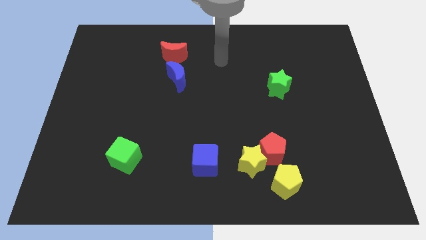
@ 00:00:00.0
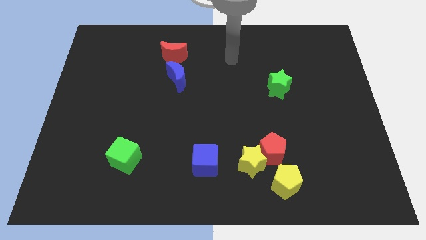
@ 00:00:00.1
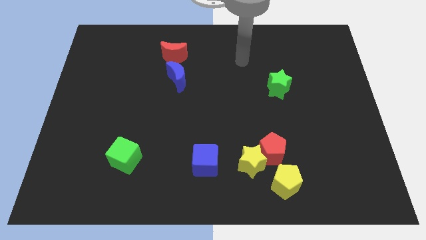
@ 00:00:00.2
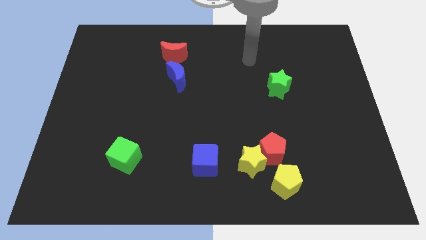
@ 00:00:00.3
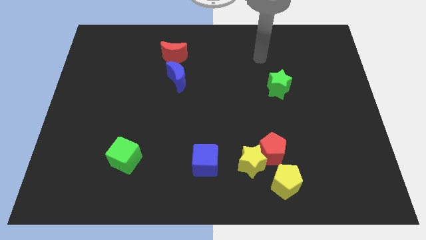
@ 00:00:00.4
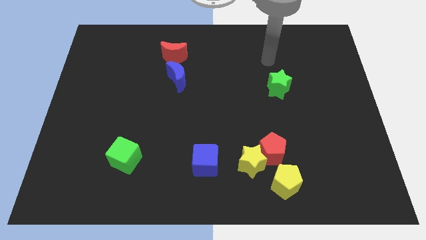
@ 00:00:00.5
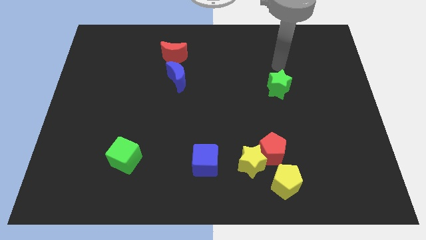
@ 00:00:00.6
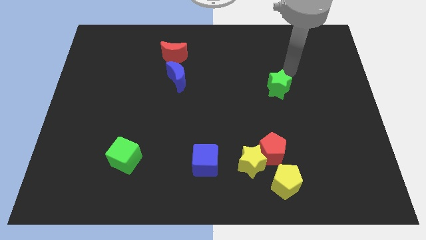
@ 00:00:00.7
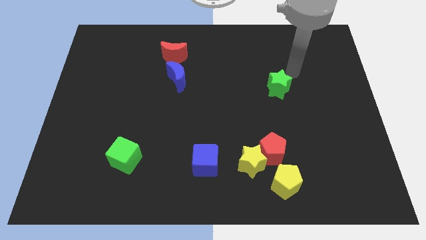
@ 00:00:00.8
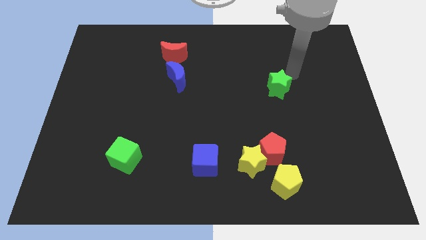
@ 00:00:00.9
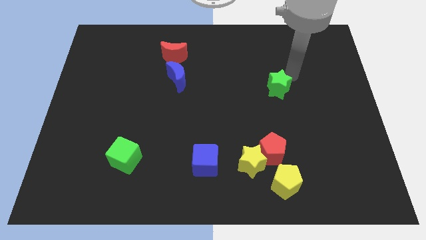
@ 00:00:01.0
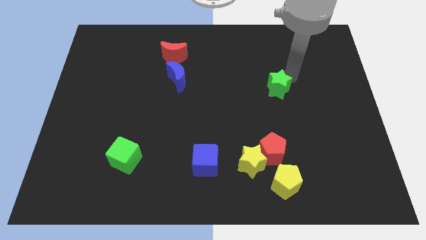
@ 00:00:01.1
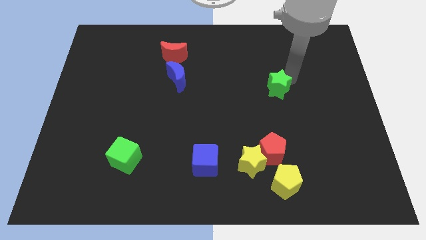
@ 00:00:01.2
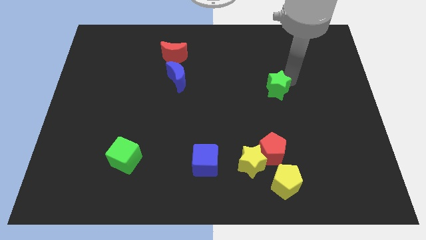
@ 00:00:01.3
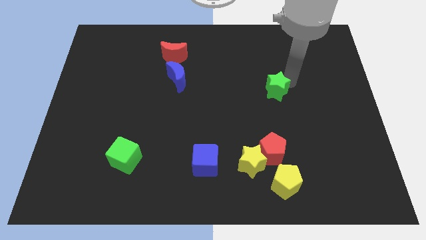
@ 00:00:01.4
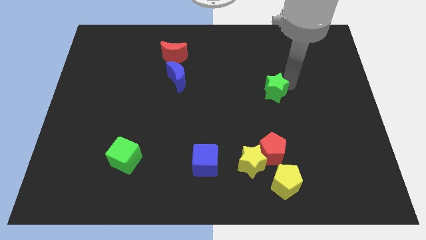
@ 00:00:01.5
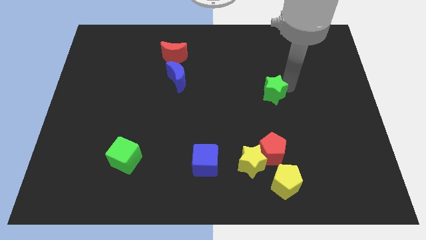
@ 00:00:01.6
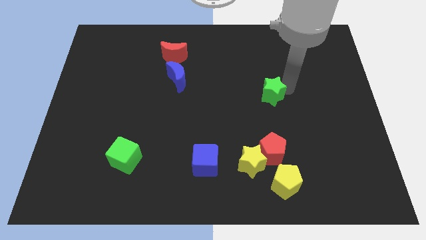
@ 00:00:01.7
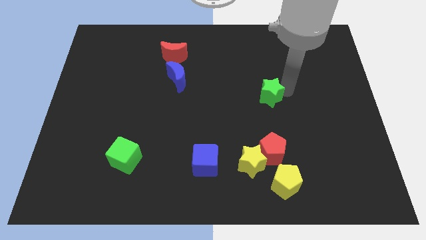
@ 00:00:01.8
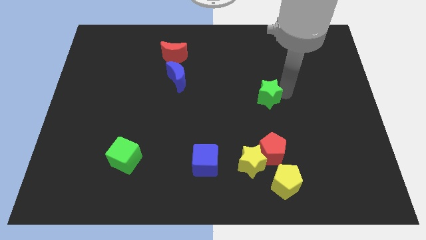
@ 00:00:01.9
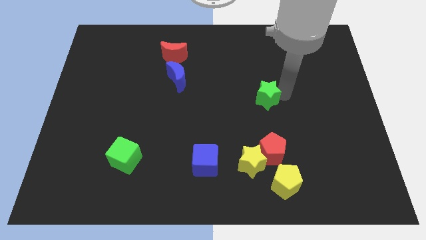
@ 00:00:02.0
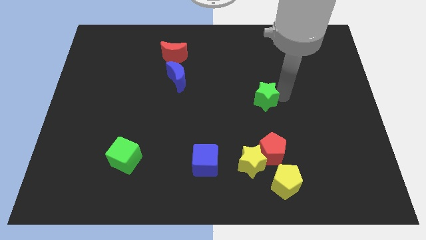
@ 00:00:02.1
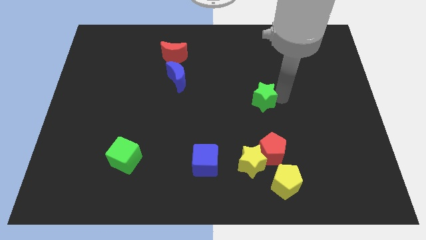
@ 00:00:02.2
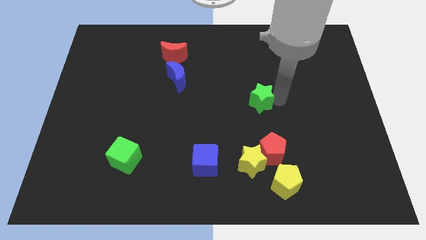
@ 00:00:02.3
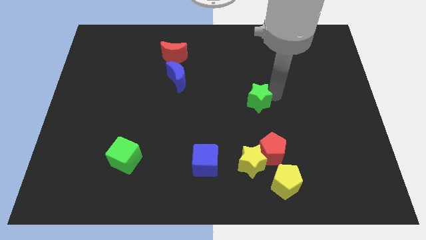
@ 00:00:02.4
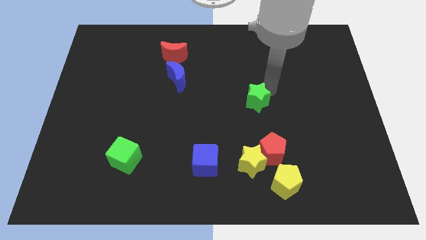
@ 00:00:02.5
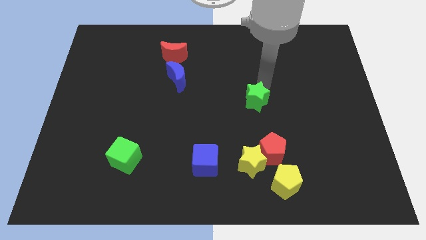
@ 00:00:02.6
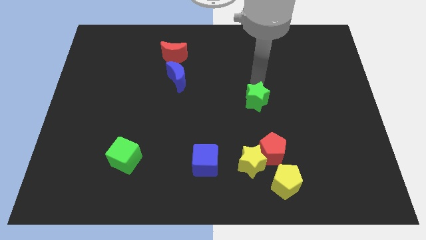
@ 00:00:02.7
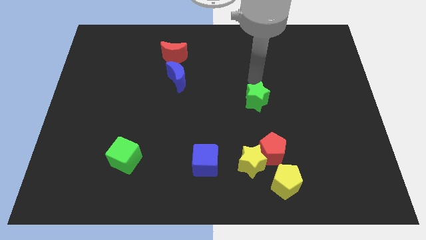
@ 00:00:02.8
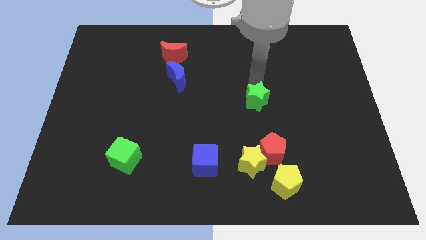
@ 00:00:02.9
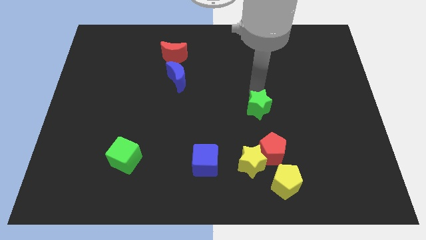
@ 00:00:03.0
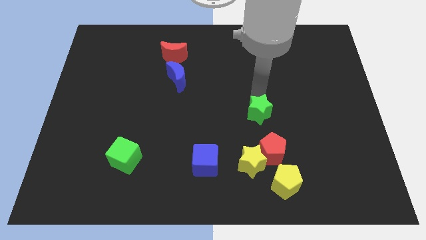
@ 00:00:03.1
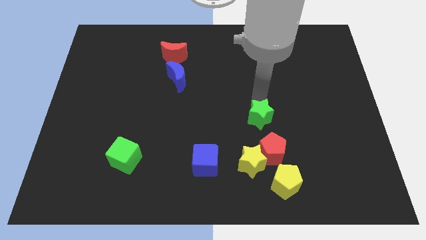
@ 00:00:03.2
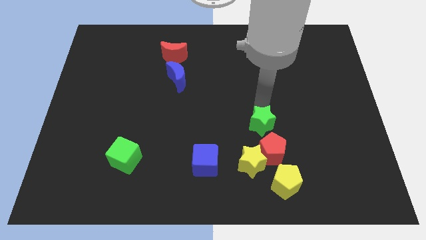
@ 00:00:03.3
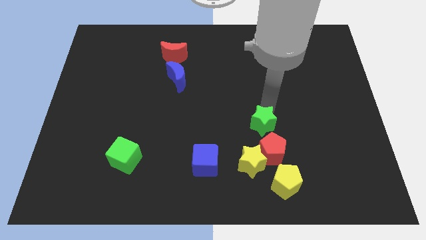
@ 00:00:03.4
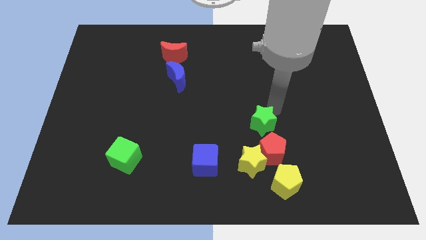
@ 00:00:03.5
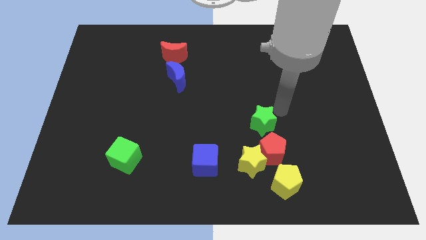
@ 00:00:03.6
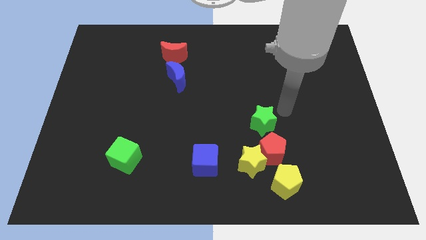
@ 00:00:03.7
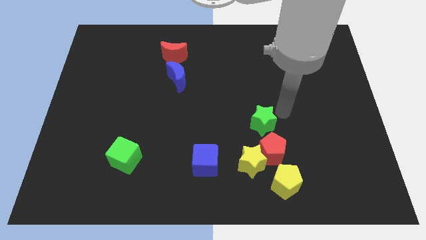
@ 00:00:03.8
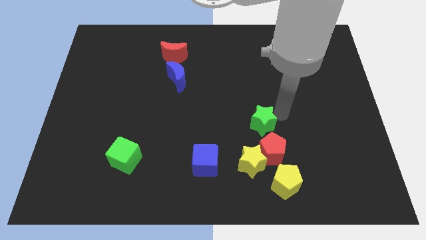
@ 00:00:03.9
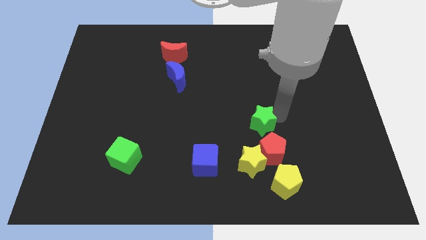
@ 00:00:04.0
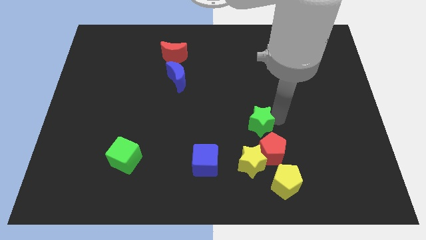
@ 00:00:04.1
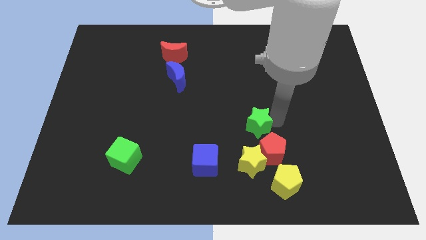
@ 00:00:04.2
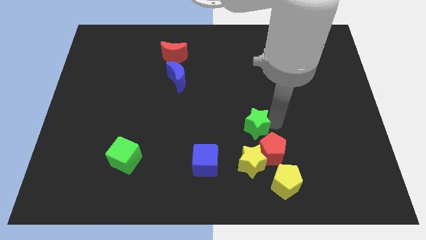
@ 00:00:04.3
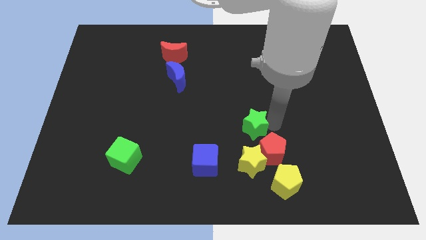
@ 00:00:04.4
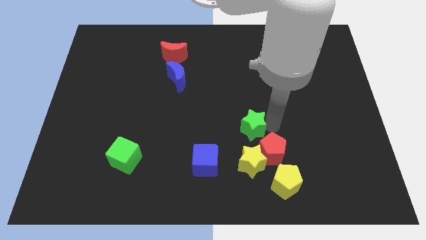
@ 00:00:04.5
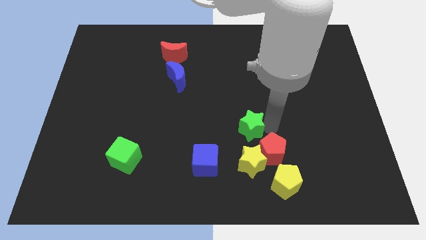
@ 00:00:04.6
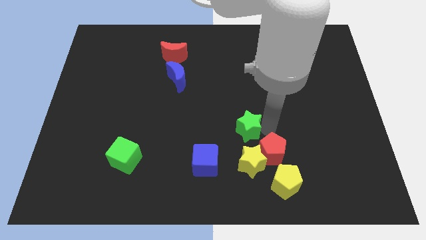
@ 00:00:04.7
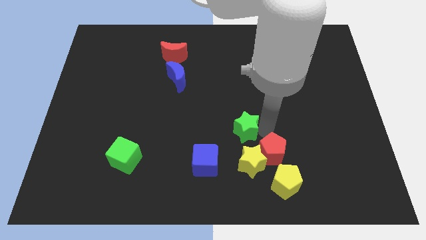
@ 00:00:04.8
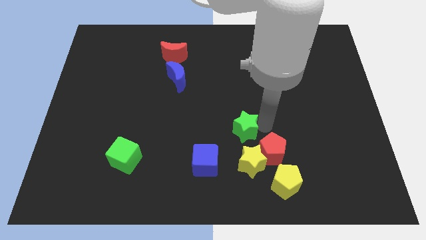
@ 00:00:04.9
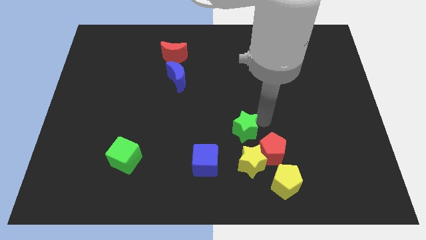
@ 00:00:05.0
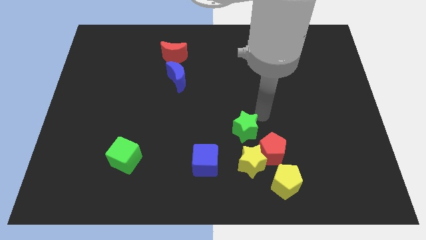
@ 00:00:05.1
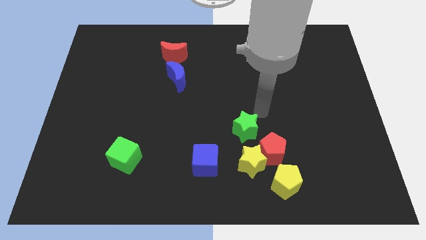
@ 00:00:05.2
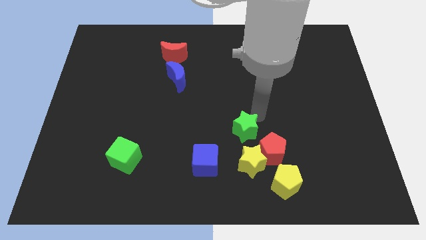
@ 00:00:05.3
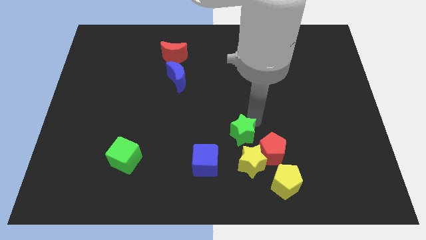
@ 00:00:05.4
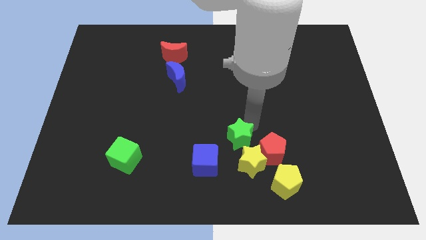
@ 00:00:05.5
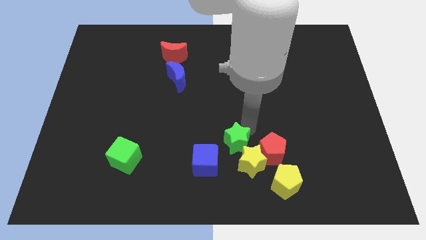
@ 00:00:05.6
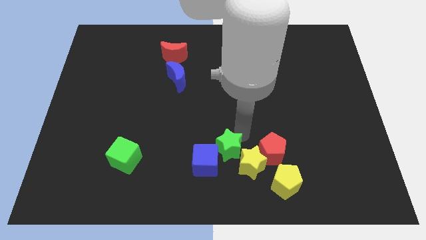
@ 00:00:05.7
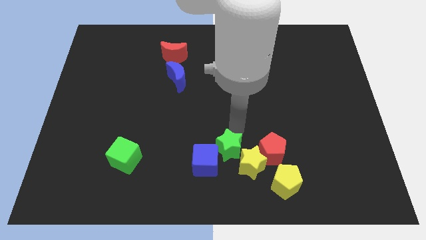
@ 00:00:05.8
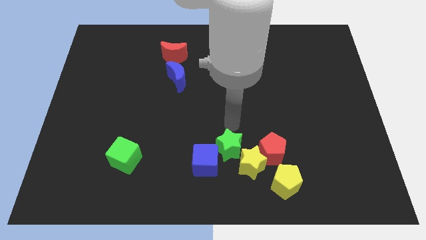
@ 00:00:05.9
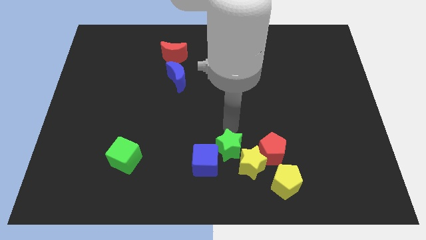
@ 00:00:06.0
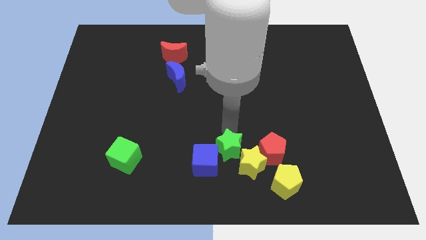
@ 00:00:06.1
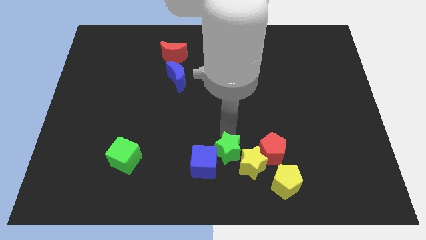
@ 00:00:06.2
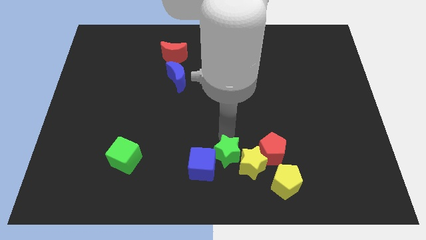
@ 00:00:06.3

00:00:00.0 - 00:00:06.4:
move the green star to the bottom side

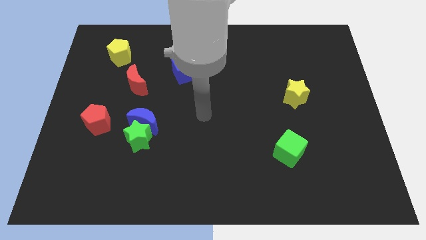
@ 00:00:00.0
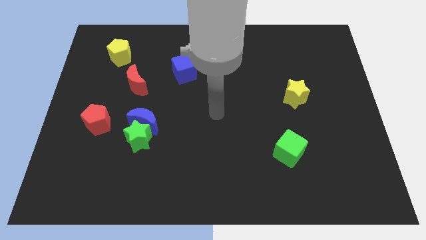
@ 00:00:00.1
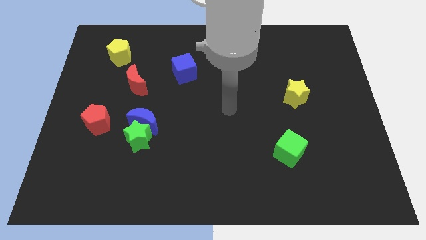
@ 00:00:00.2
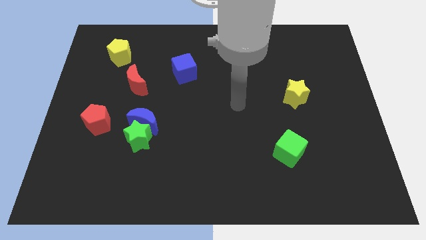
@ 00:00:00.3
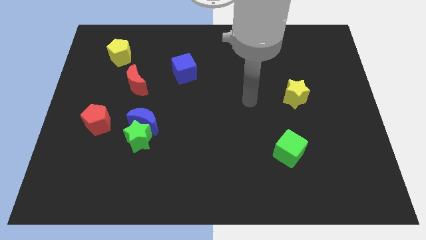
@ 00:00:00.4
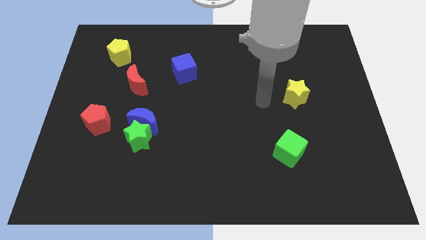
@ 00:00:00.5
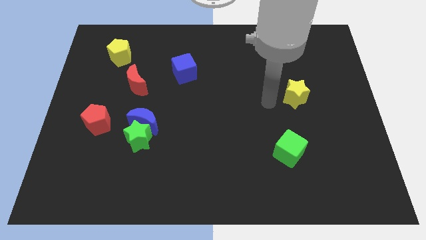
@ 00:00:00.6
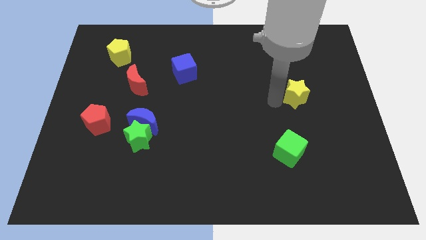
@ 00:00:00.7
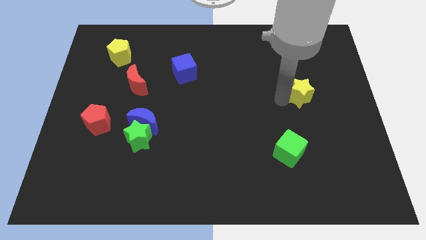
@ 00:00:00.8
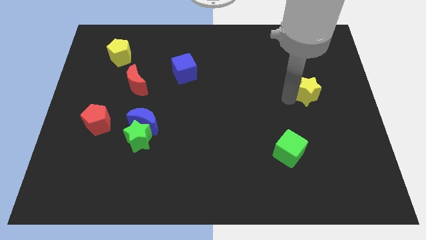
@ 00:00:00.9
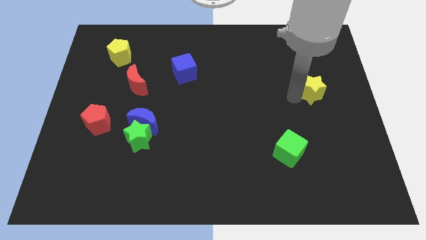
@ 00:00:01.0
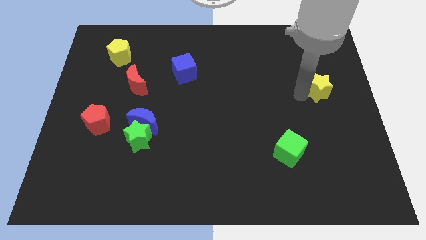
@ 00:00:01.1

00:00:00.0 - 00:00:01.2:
move the yellow star to the right side
